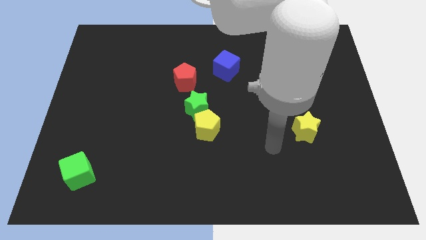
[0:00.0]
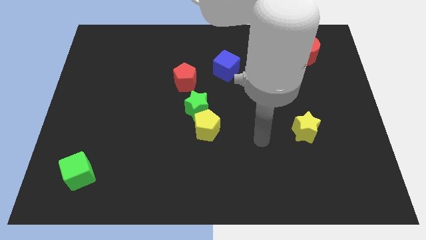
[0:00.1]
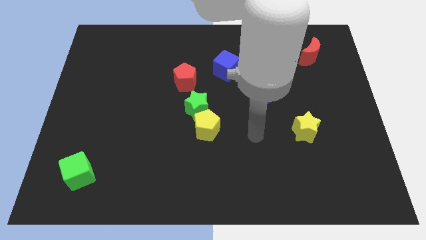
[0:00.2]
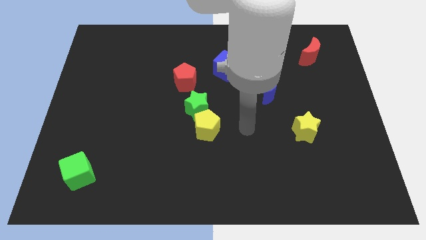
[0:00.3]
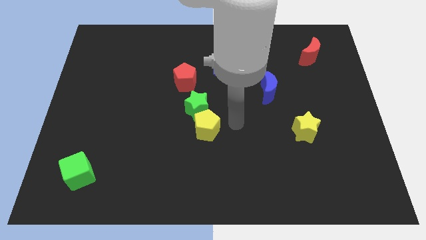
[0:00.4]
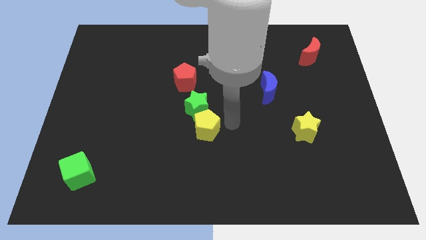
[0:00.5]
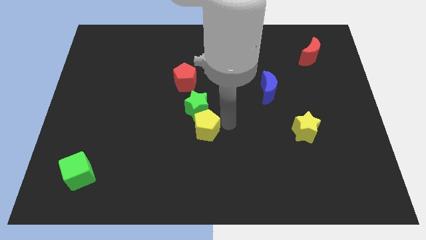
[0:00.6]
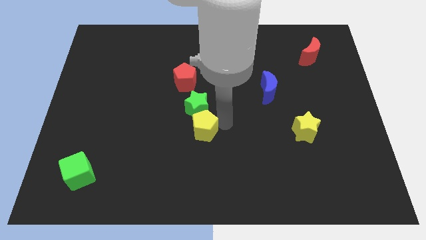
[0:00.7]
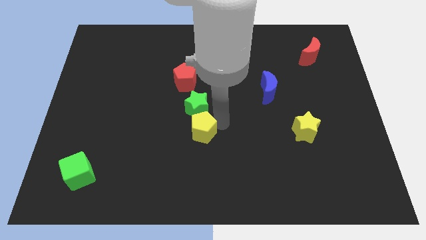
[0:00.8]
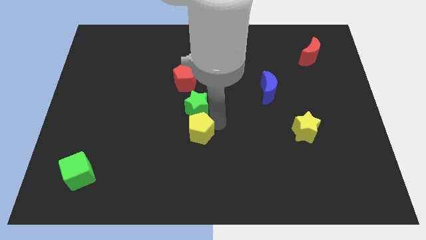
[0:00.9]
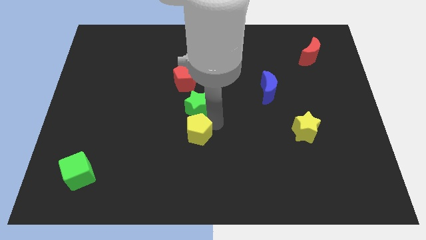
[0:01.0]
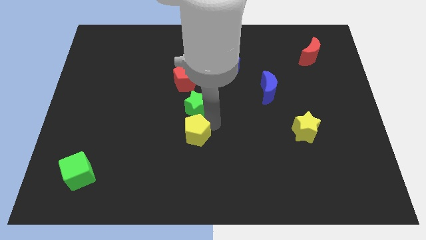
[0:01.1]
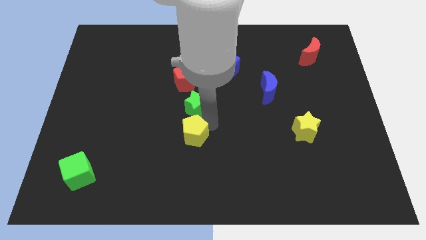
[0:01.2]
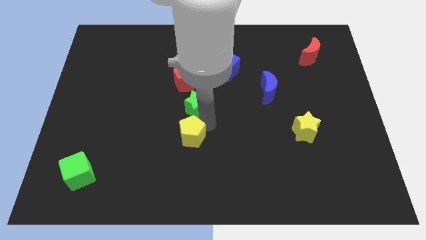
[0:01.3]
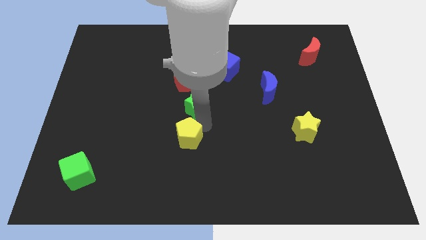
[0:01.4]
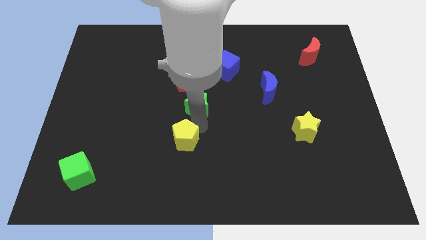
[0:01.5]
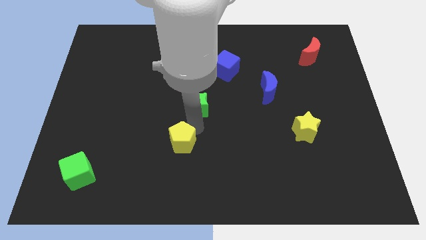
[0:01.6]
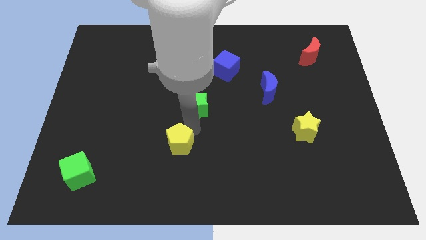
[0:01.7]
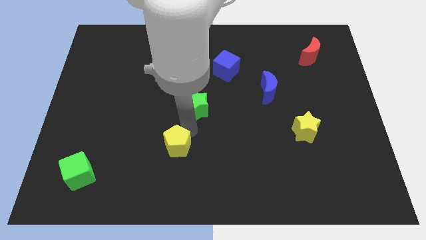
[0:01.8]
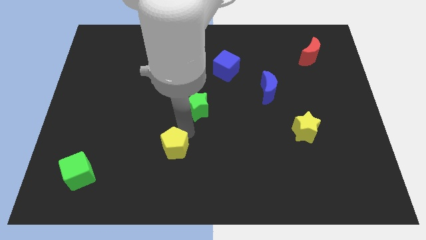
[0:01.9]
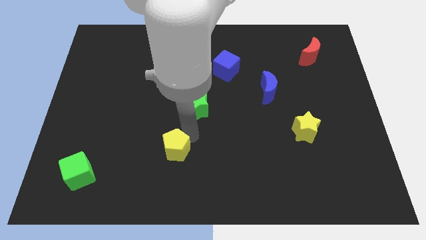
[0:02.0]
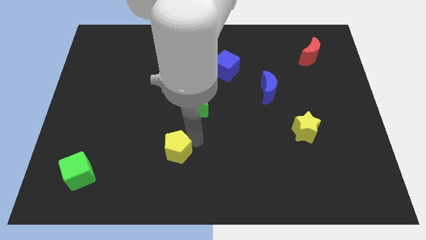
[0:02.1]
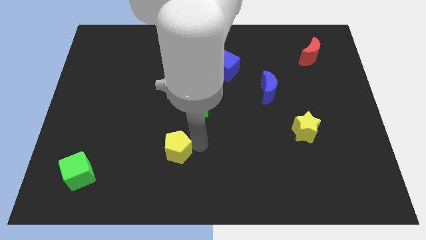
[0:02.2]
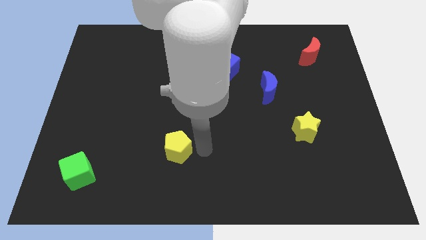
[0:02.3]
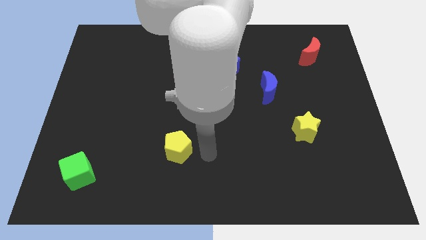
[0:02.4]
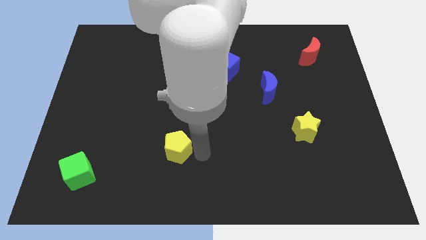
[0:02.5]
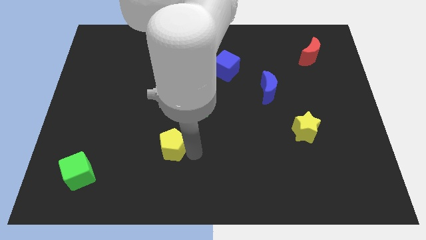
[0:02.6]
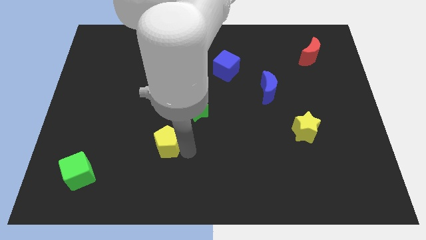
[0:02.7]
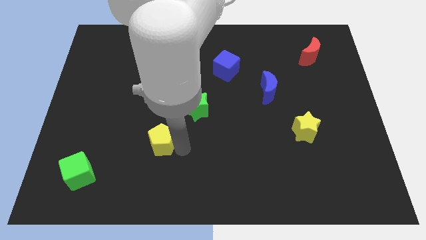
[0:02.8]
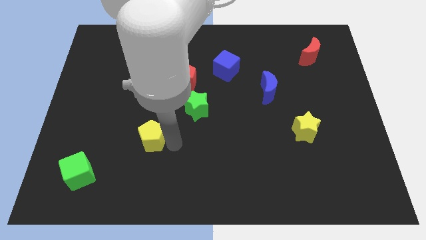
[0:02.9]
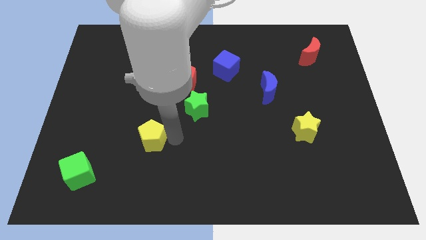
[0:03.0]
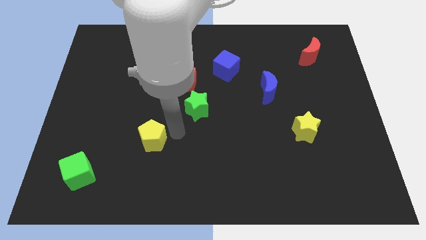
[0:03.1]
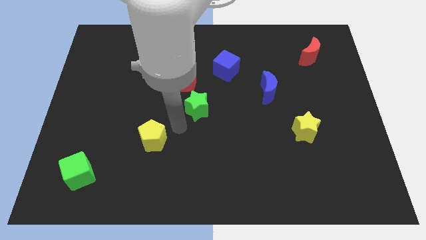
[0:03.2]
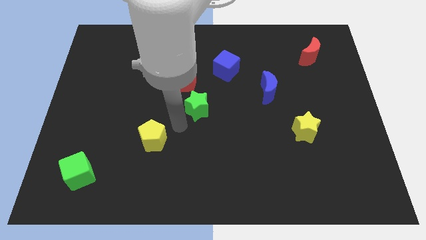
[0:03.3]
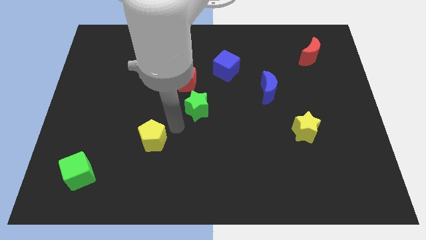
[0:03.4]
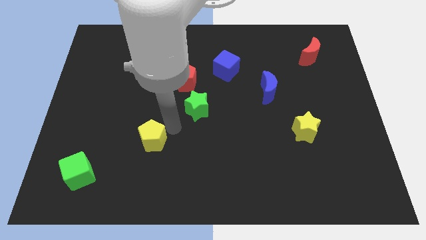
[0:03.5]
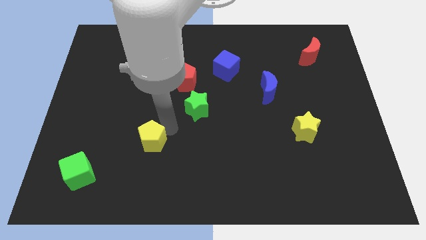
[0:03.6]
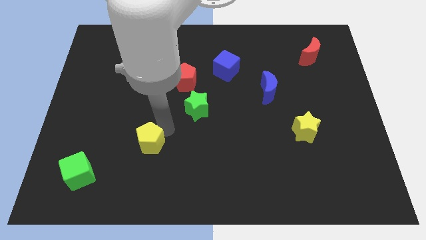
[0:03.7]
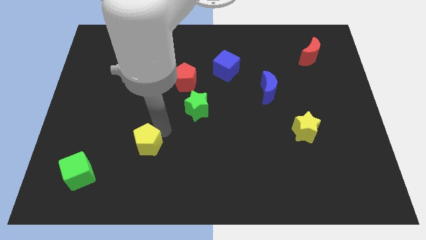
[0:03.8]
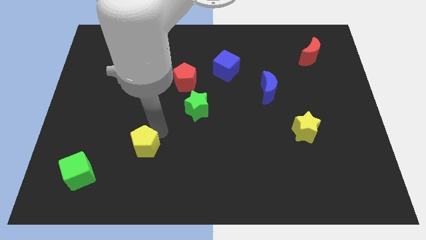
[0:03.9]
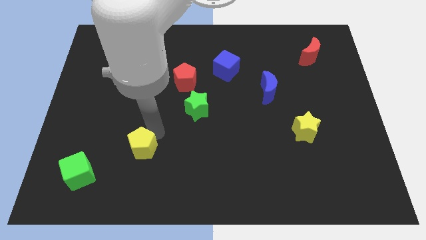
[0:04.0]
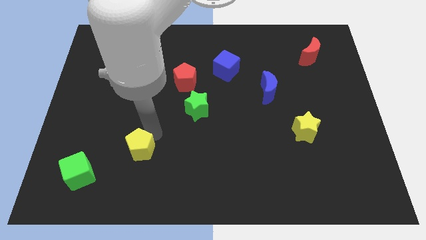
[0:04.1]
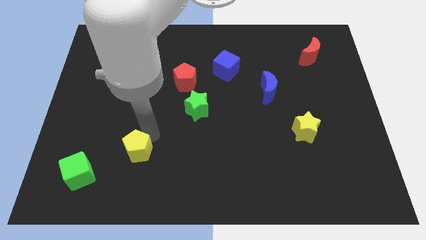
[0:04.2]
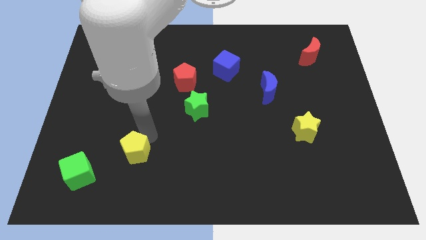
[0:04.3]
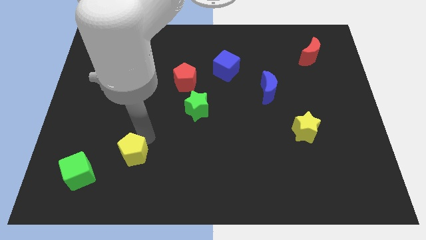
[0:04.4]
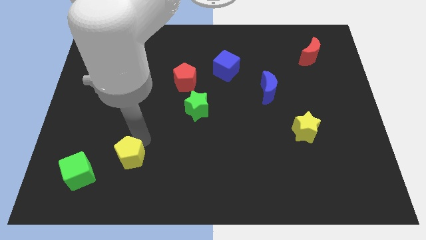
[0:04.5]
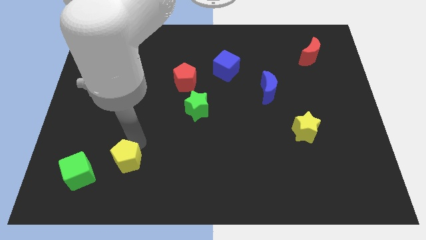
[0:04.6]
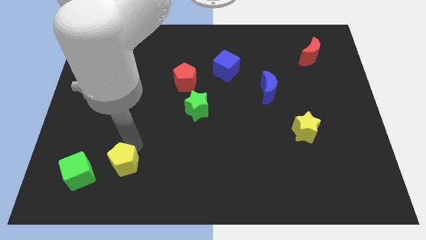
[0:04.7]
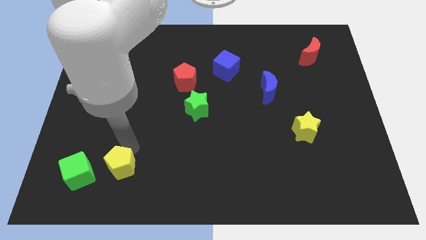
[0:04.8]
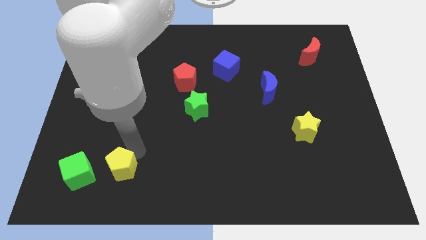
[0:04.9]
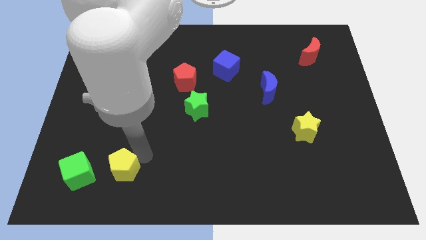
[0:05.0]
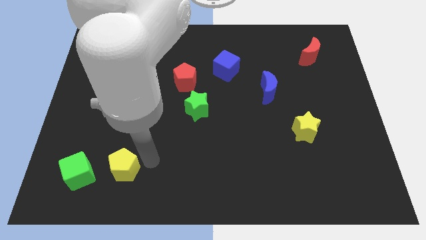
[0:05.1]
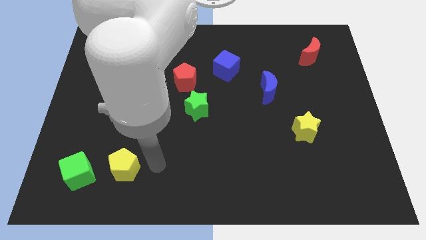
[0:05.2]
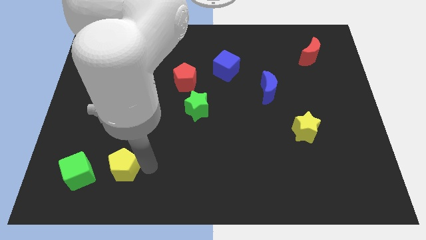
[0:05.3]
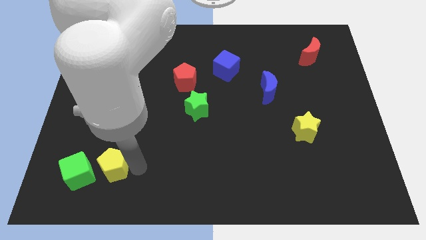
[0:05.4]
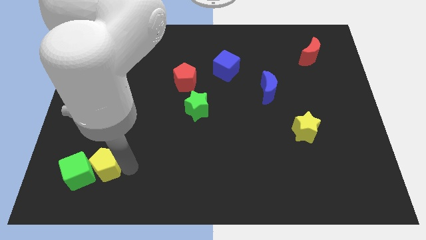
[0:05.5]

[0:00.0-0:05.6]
put the yellow pentagon next to the green cube

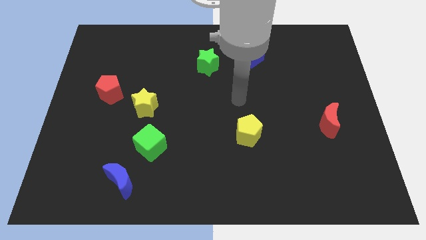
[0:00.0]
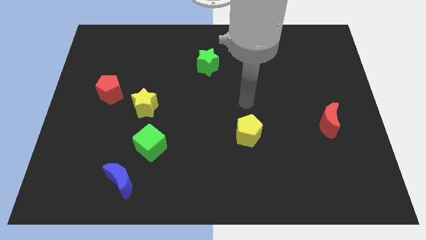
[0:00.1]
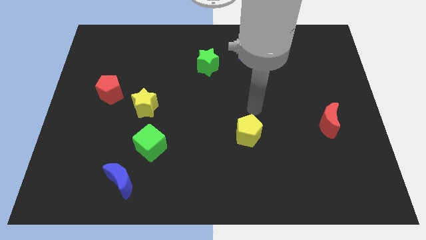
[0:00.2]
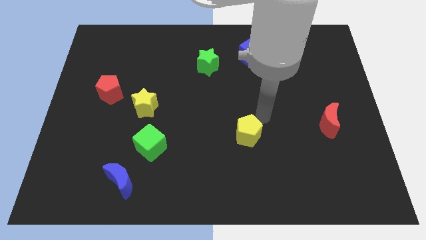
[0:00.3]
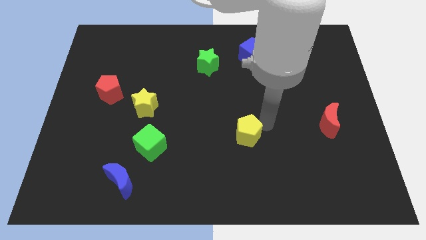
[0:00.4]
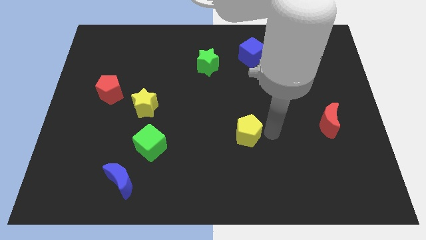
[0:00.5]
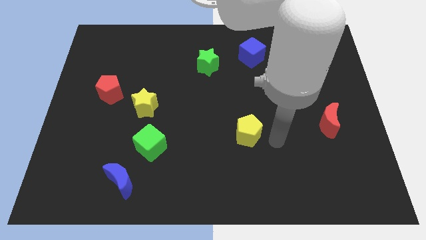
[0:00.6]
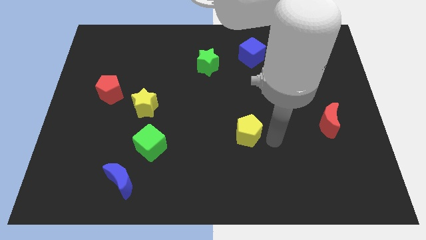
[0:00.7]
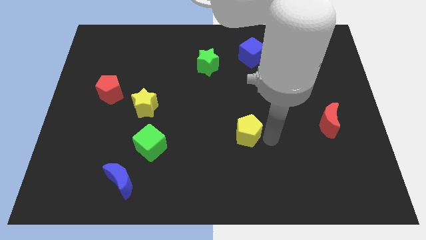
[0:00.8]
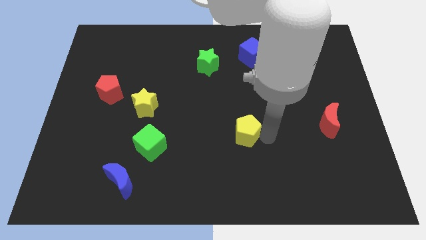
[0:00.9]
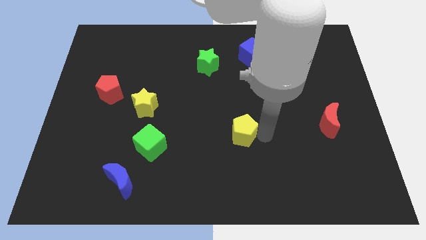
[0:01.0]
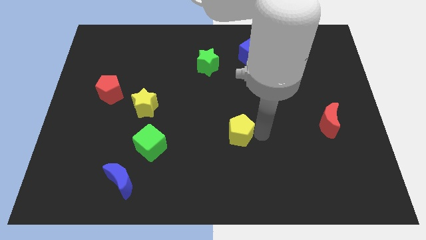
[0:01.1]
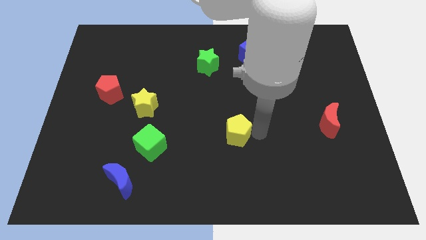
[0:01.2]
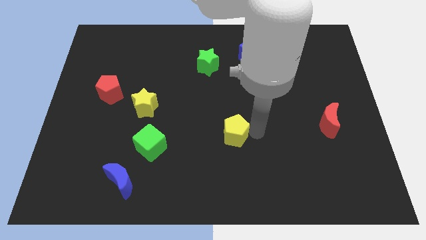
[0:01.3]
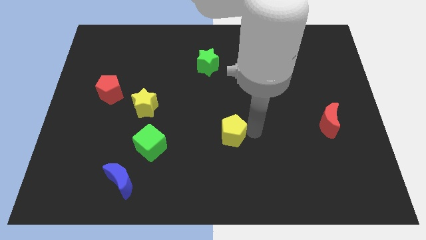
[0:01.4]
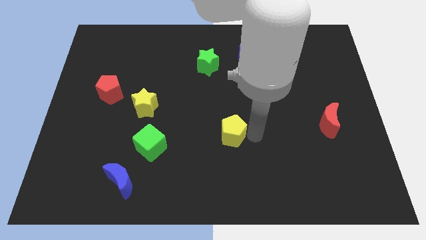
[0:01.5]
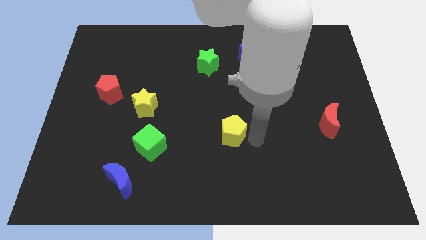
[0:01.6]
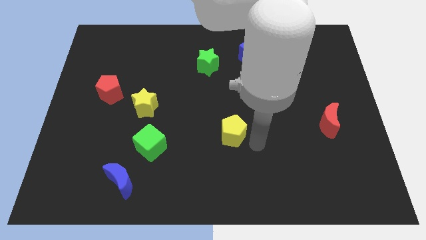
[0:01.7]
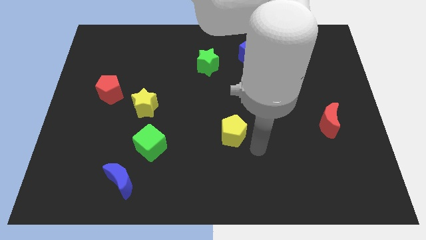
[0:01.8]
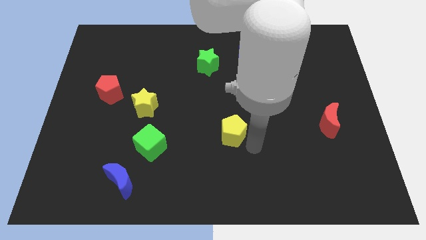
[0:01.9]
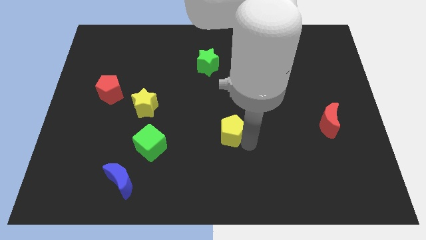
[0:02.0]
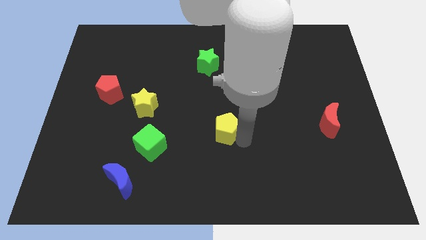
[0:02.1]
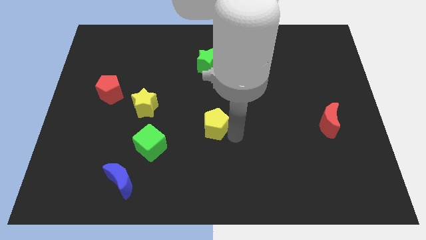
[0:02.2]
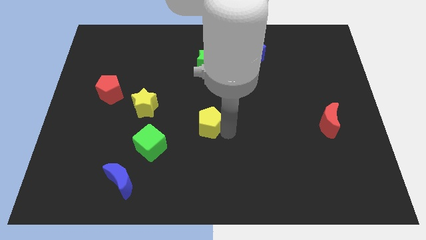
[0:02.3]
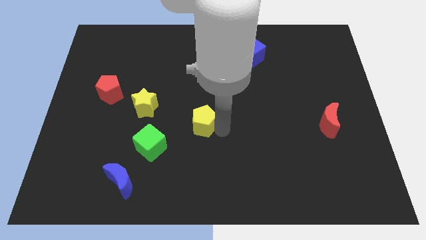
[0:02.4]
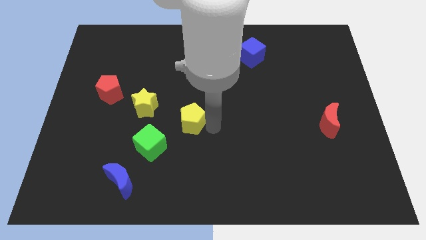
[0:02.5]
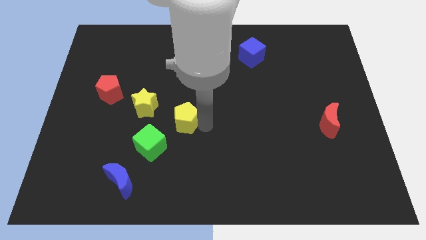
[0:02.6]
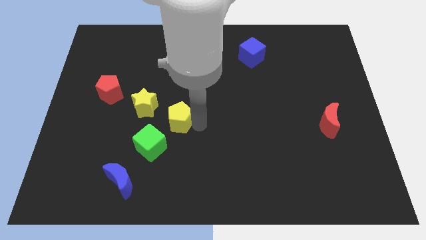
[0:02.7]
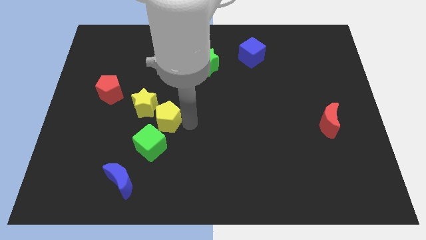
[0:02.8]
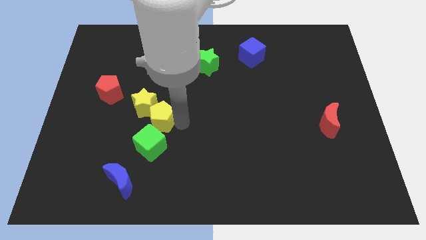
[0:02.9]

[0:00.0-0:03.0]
move the yellow pentagon next to the yellow star
